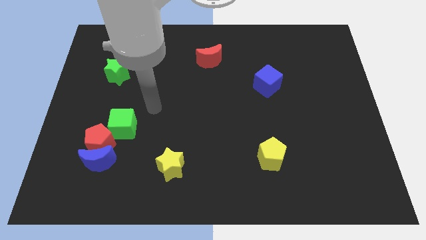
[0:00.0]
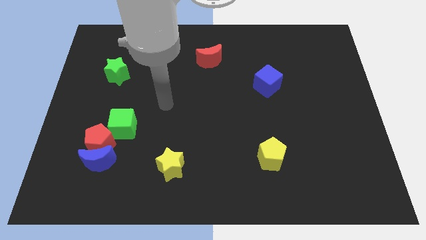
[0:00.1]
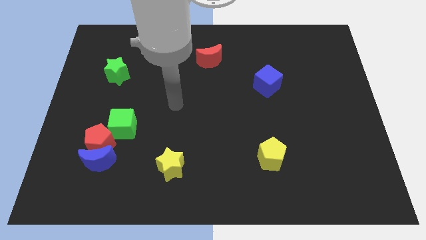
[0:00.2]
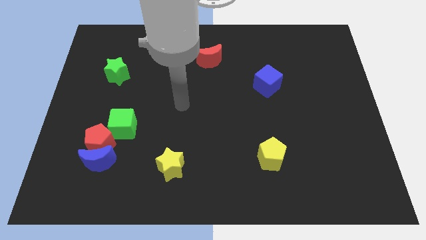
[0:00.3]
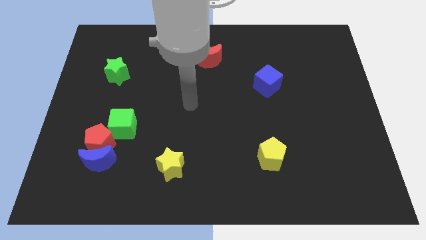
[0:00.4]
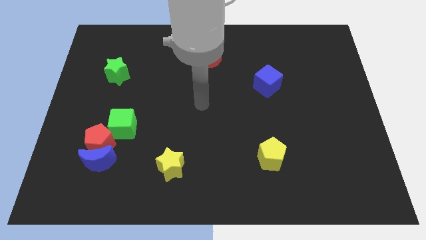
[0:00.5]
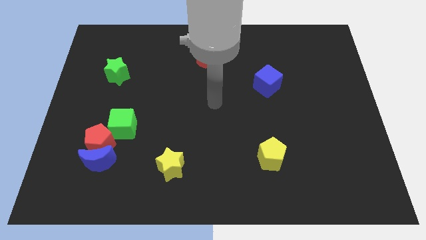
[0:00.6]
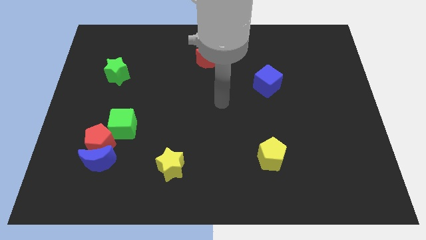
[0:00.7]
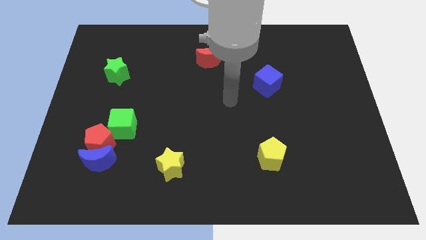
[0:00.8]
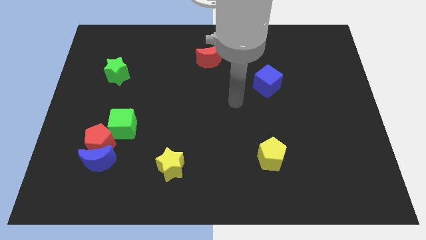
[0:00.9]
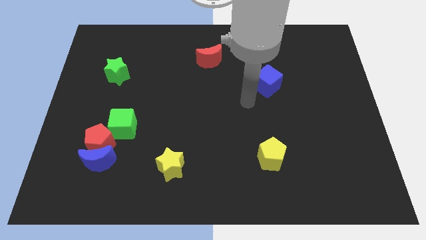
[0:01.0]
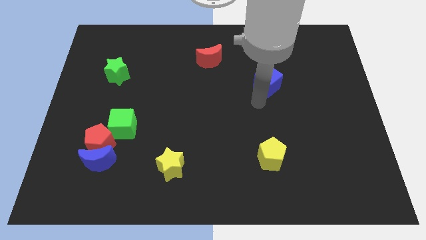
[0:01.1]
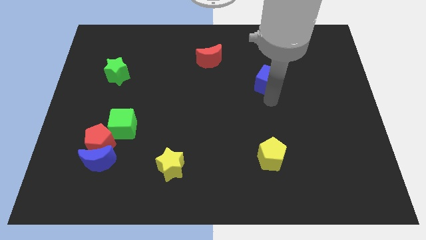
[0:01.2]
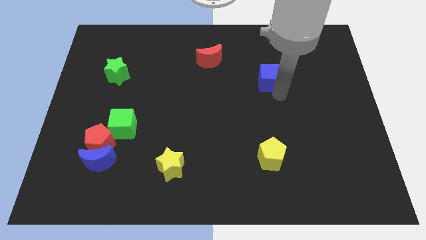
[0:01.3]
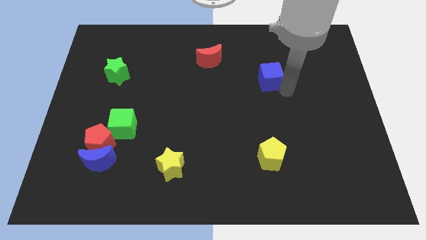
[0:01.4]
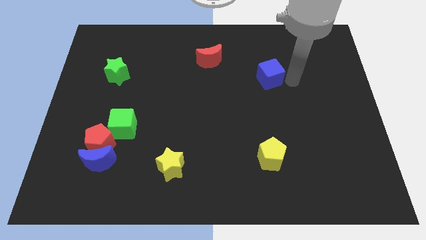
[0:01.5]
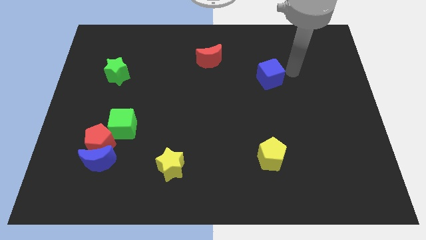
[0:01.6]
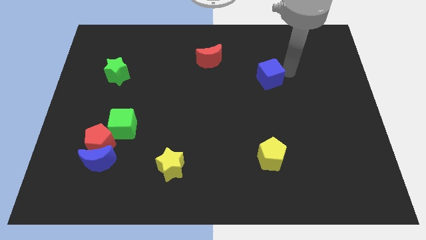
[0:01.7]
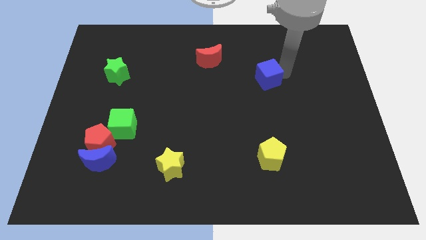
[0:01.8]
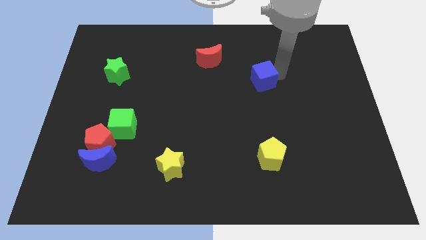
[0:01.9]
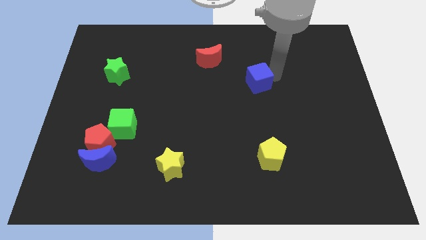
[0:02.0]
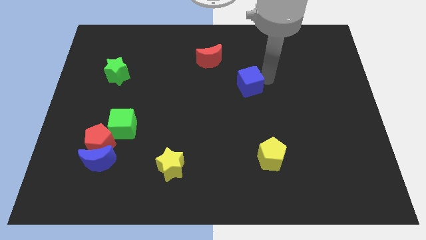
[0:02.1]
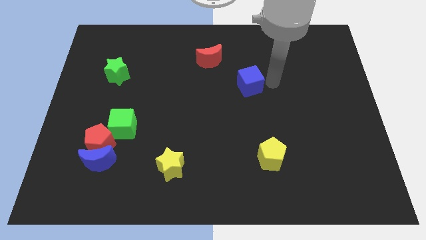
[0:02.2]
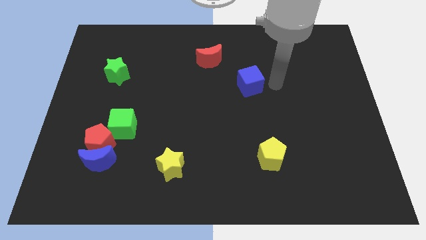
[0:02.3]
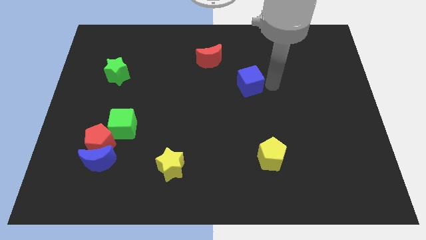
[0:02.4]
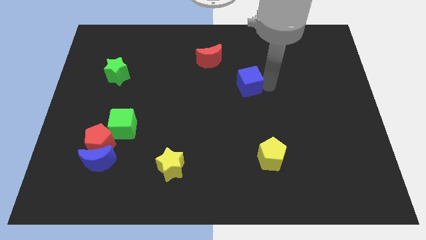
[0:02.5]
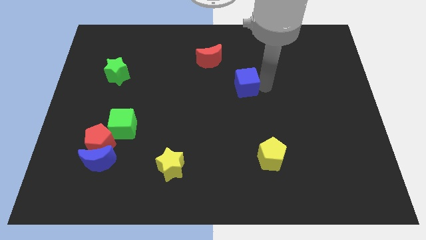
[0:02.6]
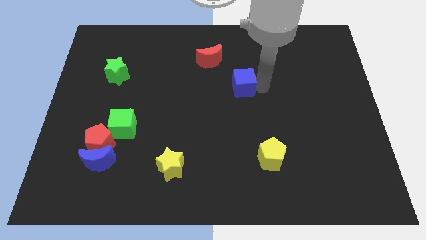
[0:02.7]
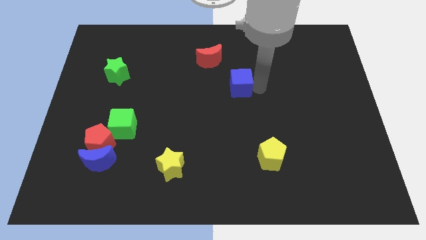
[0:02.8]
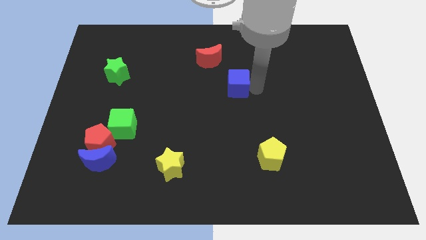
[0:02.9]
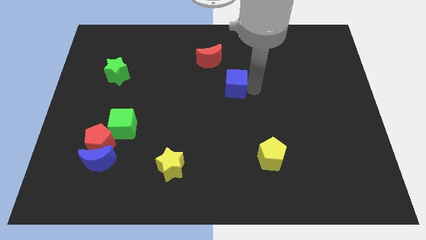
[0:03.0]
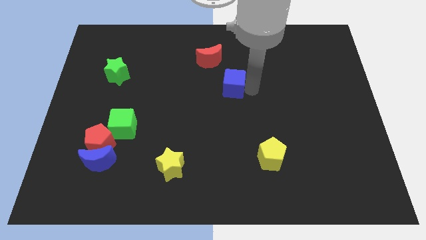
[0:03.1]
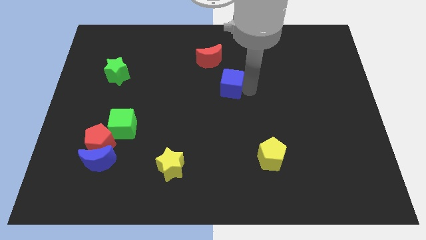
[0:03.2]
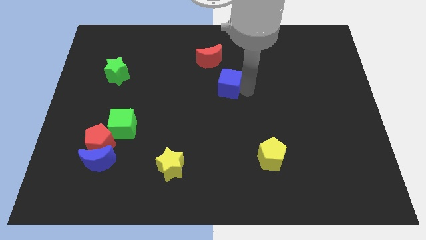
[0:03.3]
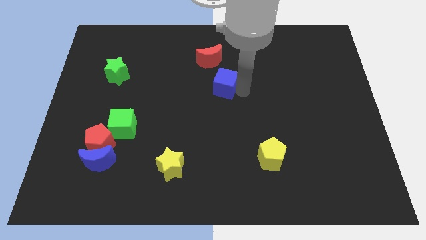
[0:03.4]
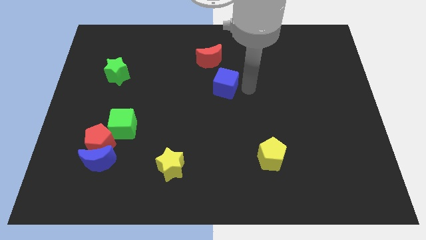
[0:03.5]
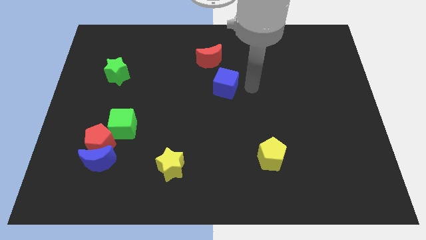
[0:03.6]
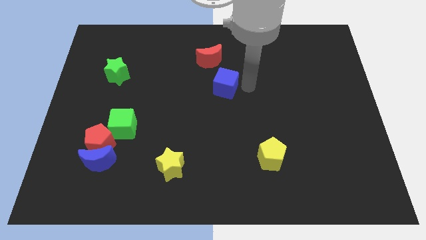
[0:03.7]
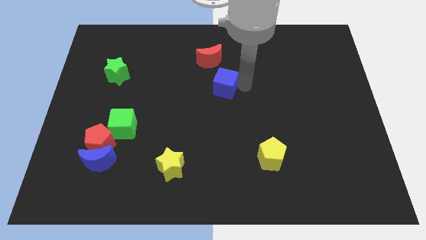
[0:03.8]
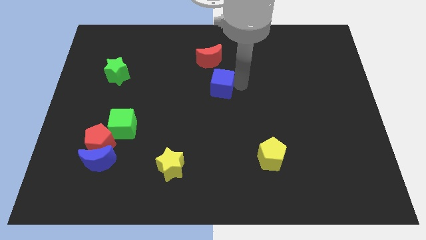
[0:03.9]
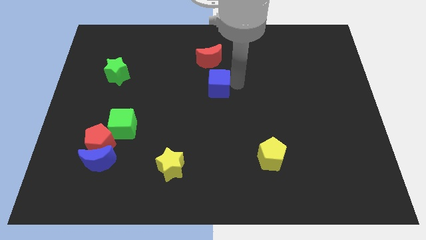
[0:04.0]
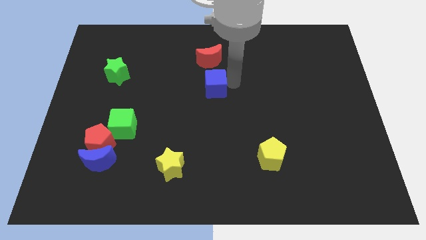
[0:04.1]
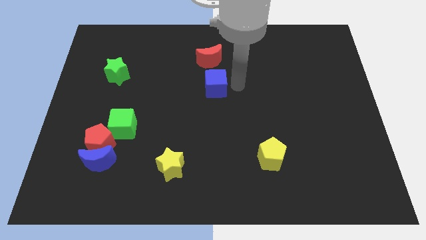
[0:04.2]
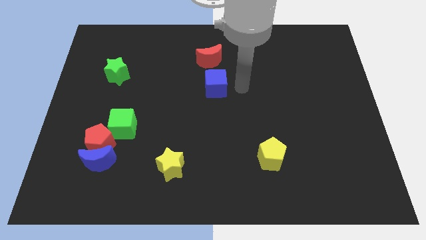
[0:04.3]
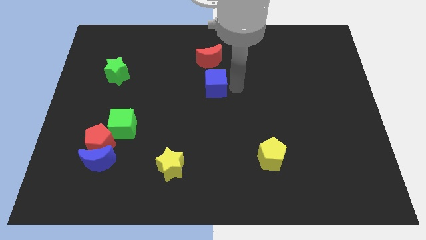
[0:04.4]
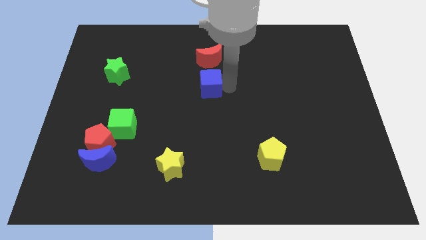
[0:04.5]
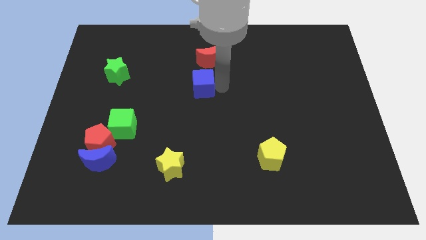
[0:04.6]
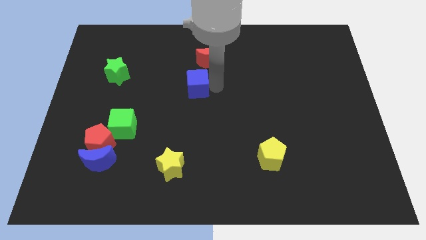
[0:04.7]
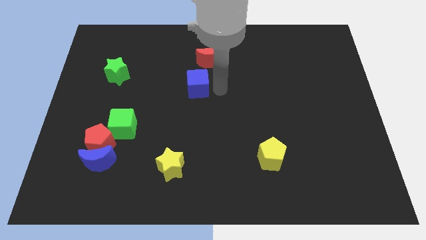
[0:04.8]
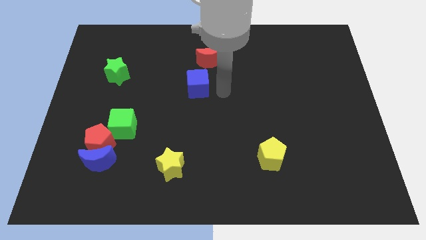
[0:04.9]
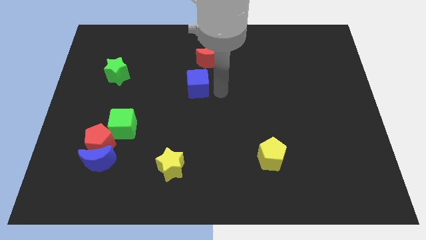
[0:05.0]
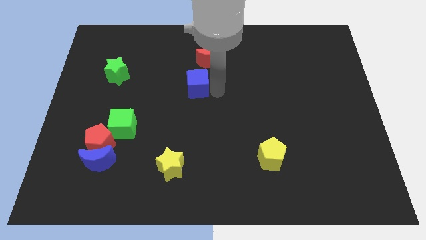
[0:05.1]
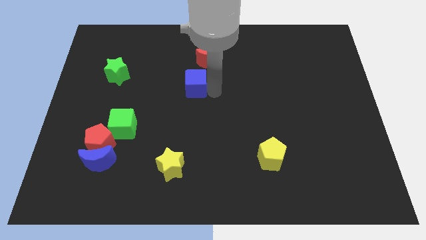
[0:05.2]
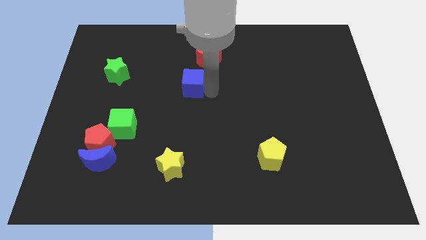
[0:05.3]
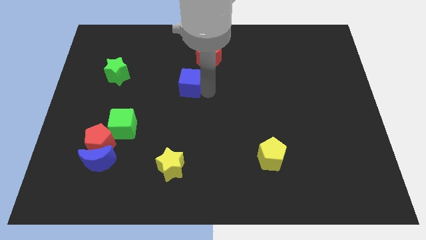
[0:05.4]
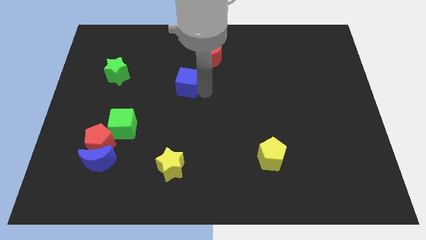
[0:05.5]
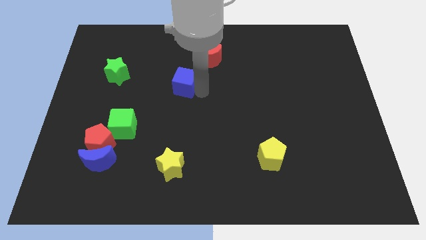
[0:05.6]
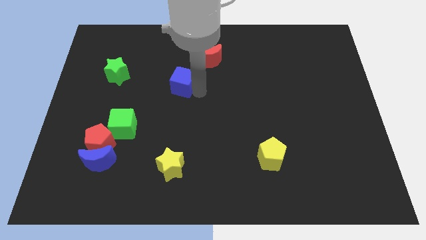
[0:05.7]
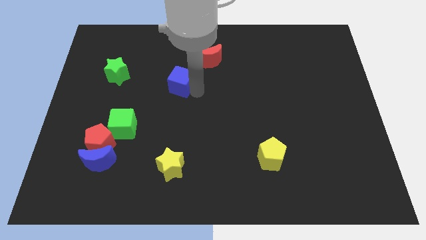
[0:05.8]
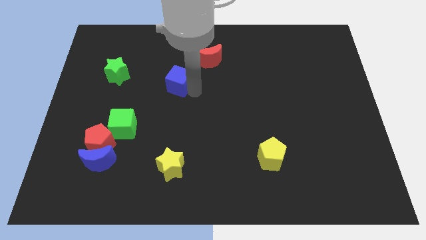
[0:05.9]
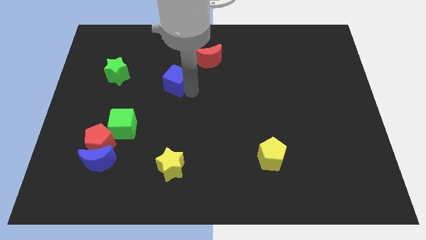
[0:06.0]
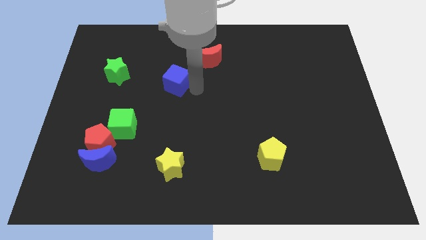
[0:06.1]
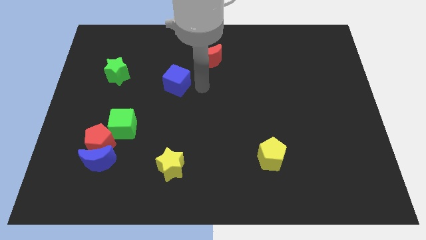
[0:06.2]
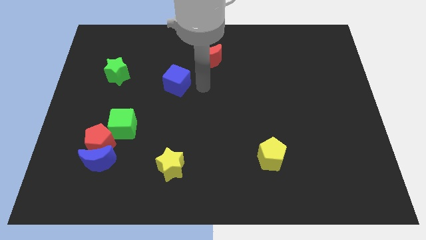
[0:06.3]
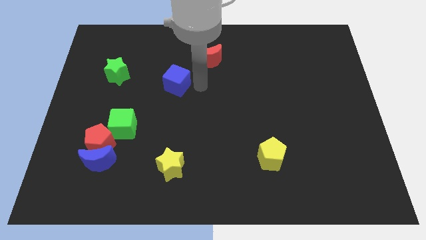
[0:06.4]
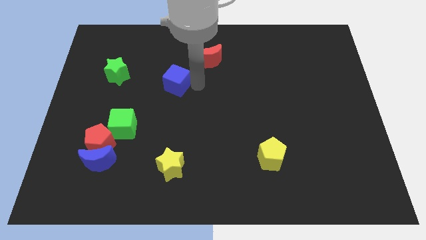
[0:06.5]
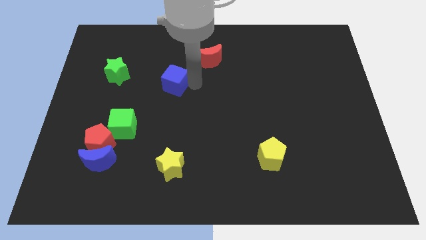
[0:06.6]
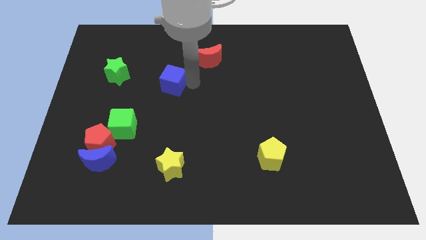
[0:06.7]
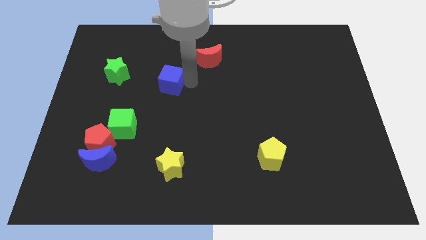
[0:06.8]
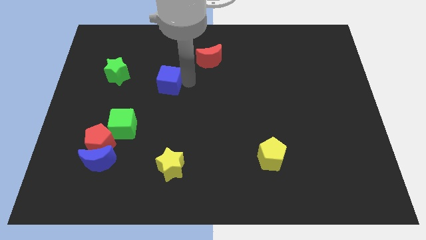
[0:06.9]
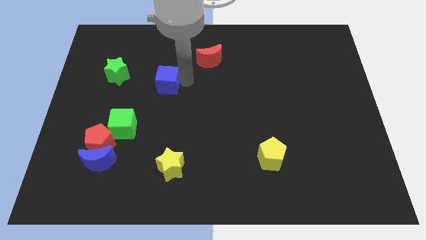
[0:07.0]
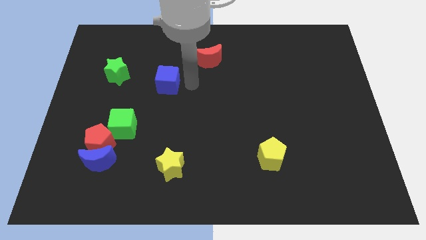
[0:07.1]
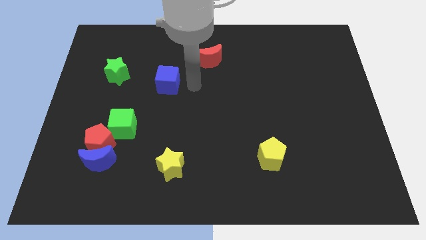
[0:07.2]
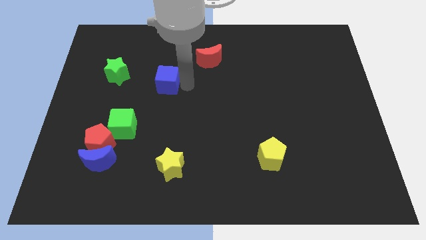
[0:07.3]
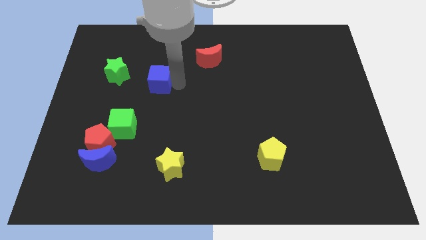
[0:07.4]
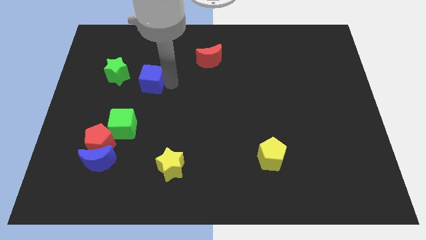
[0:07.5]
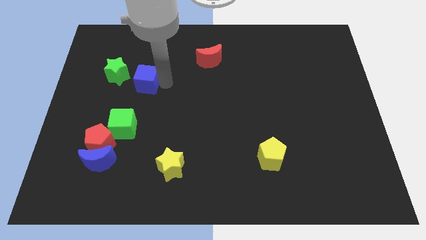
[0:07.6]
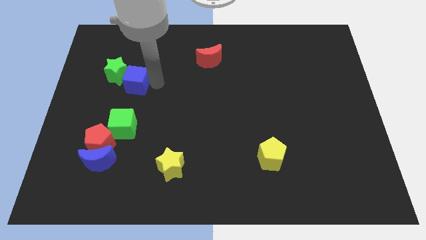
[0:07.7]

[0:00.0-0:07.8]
move the blue cube towards the green star
